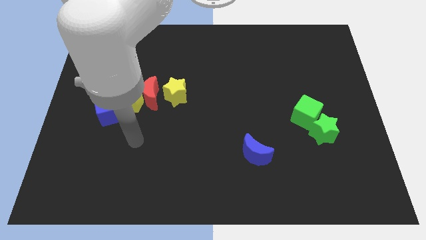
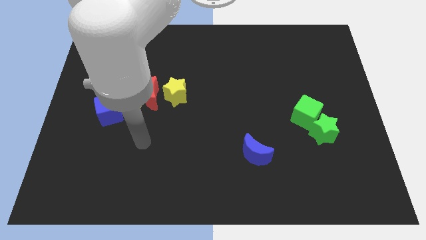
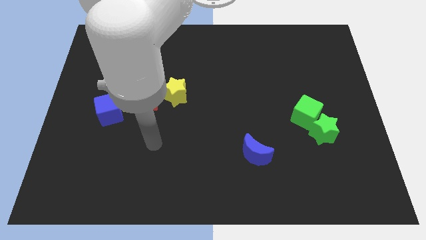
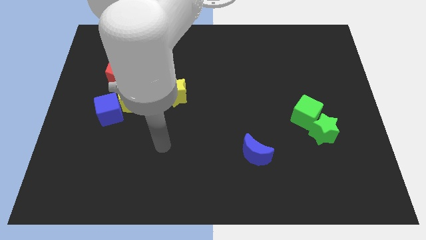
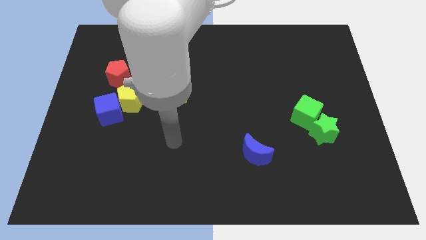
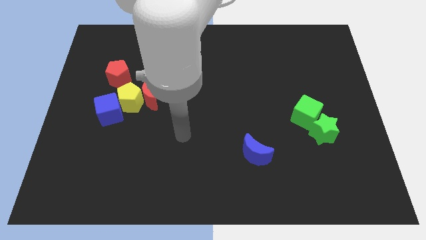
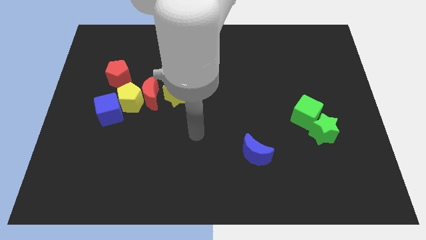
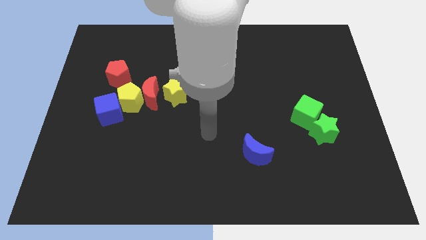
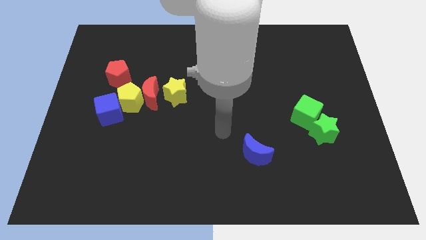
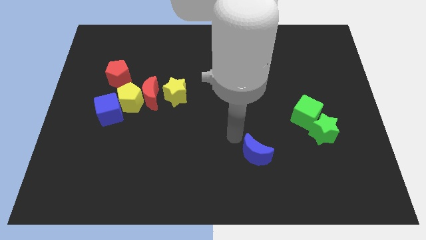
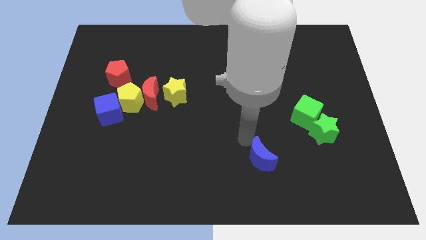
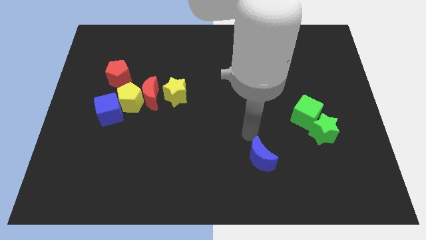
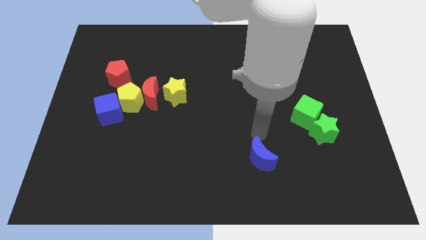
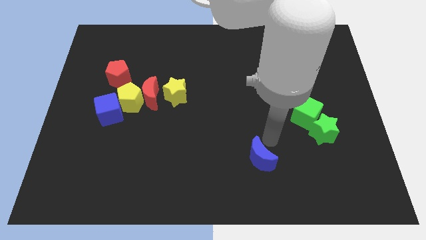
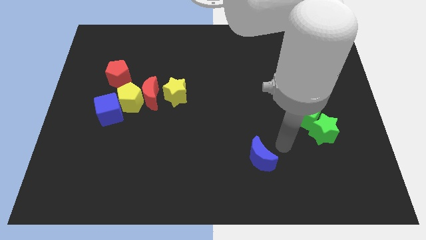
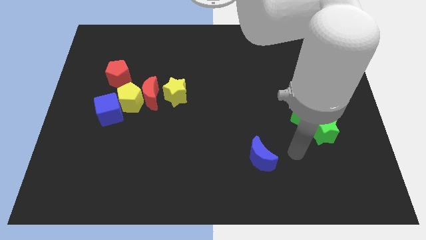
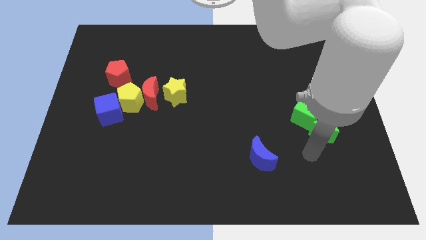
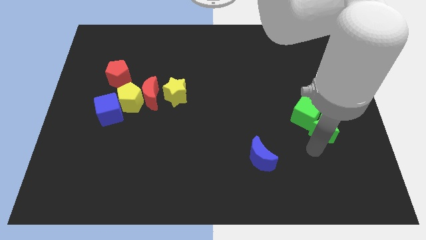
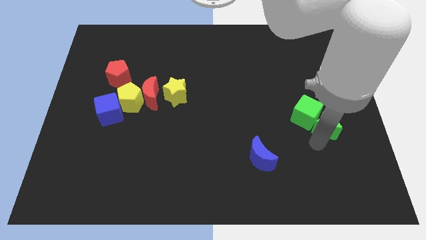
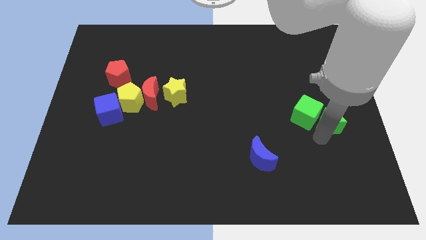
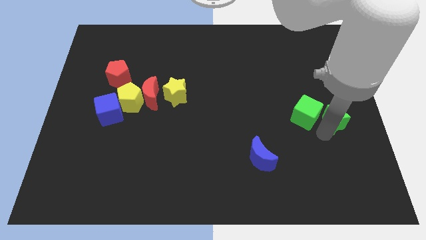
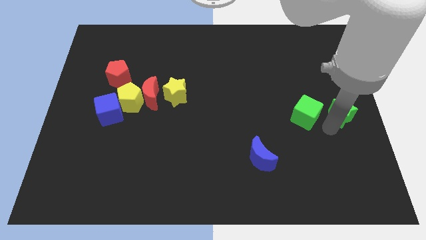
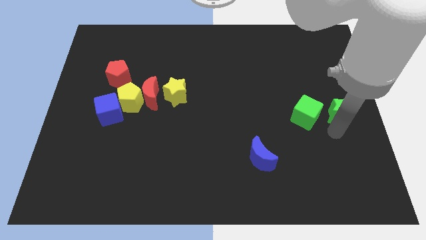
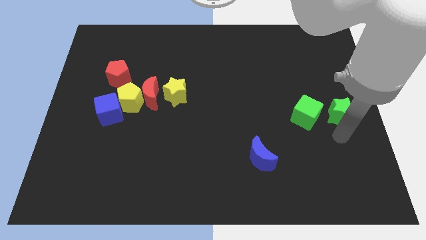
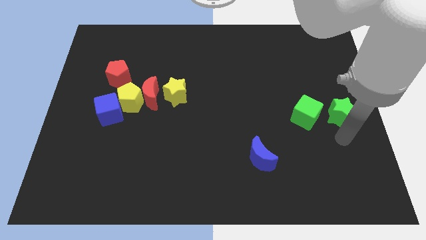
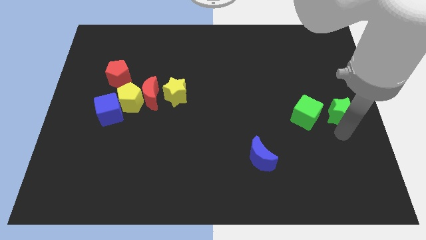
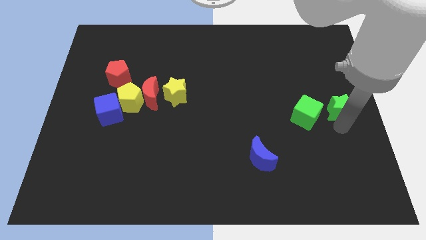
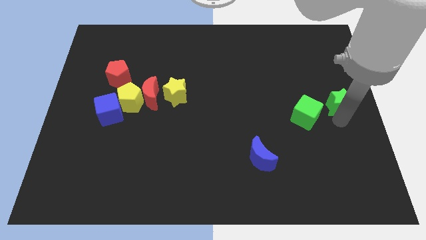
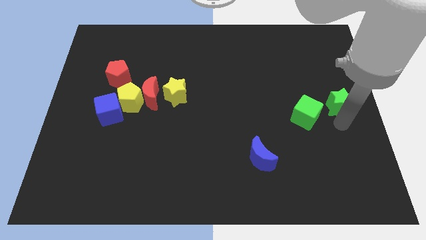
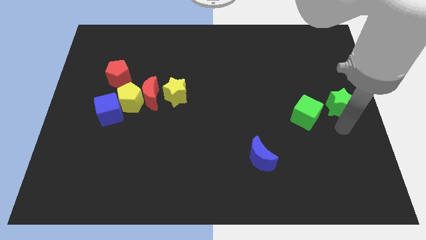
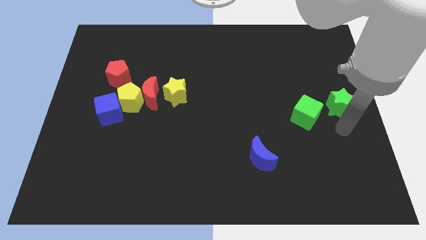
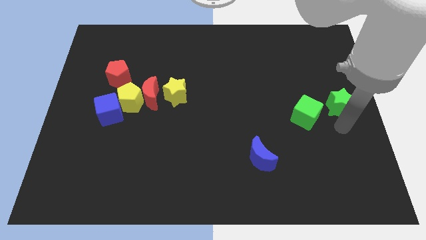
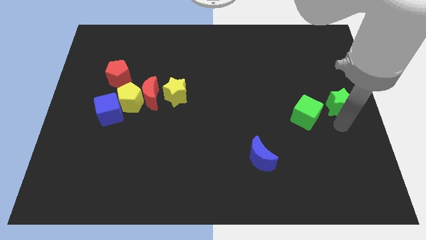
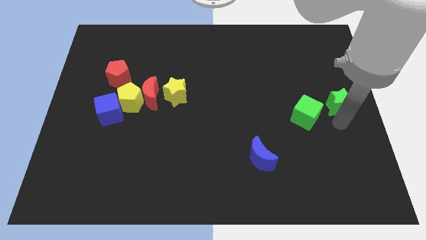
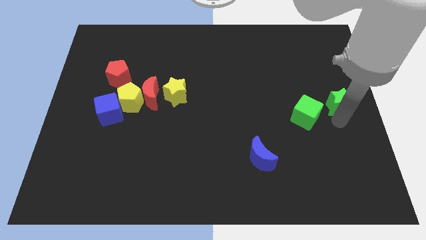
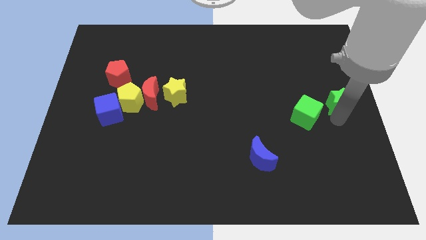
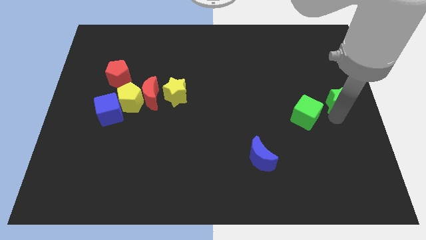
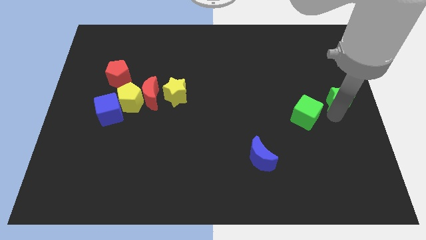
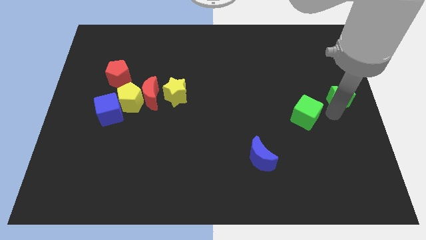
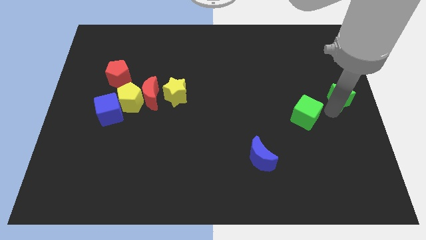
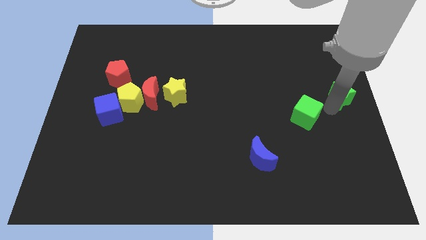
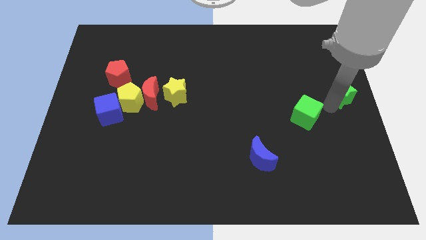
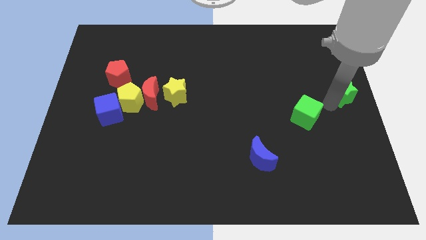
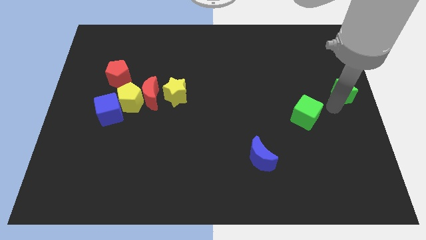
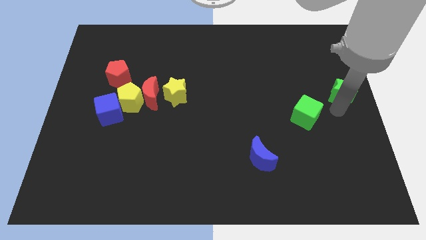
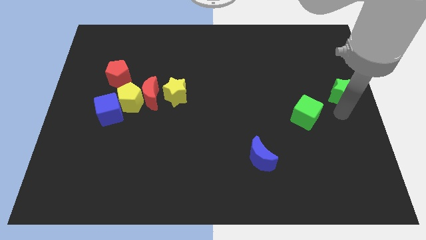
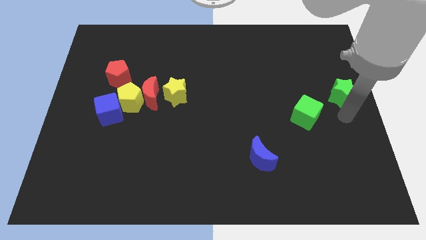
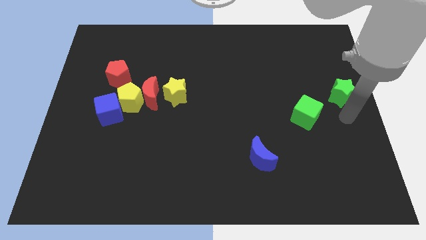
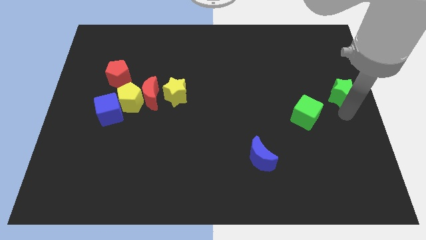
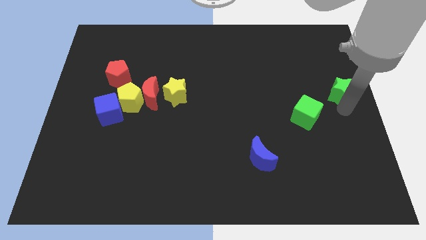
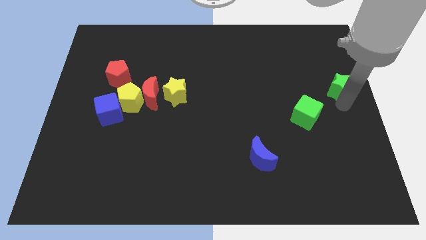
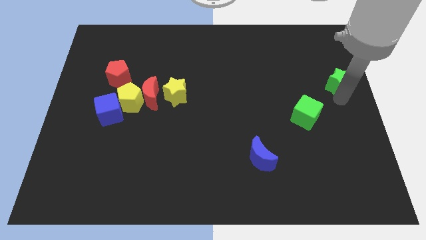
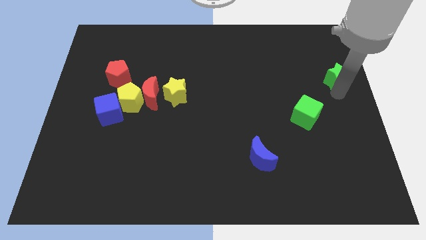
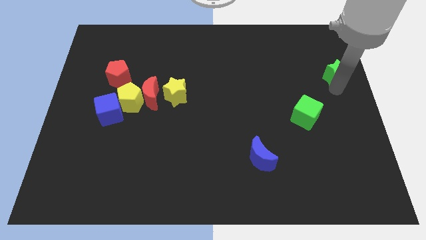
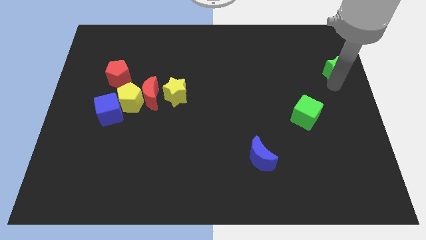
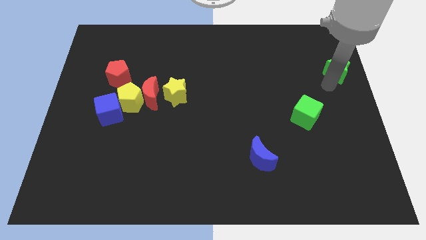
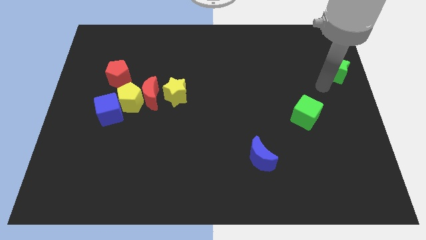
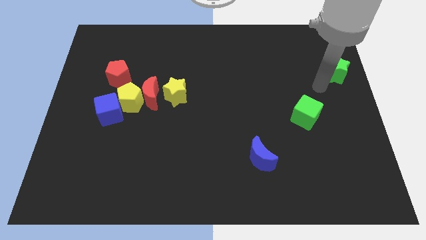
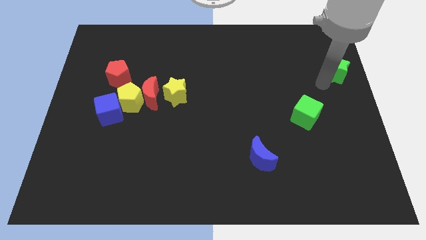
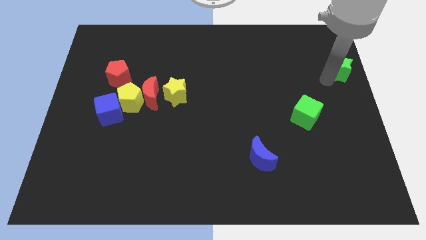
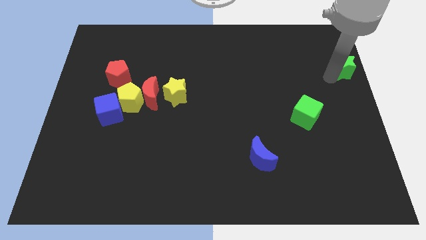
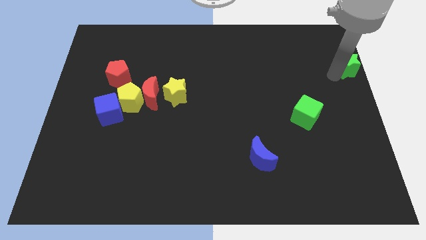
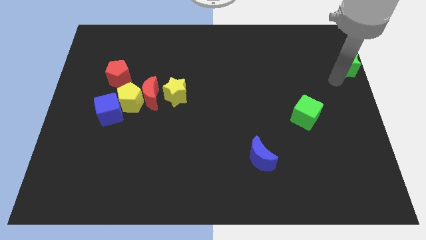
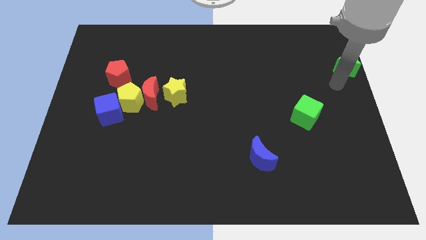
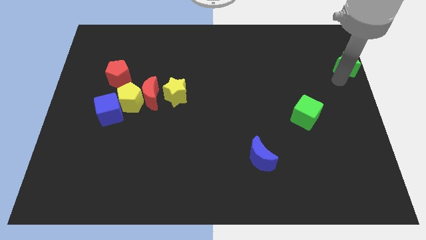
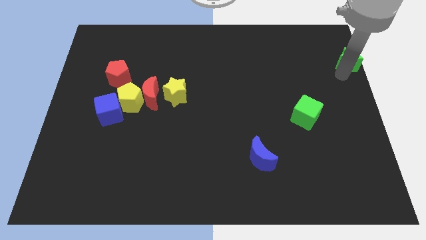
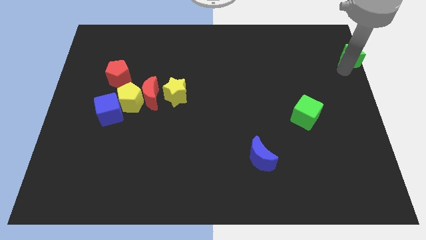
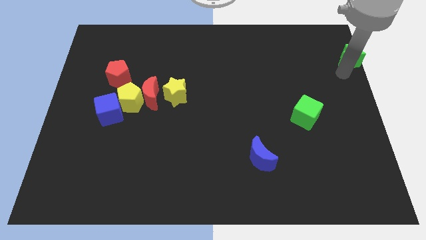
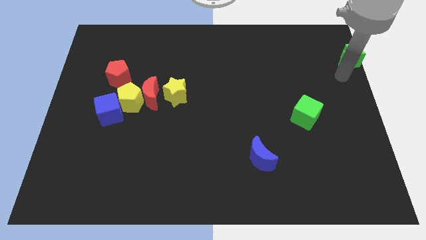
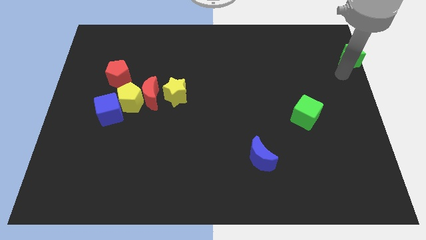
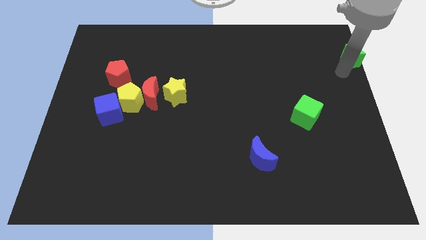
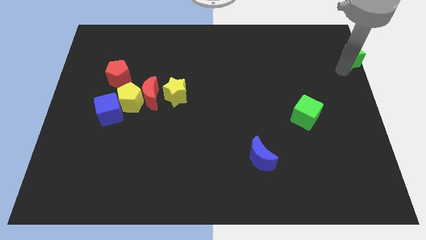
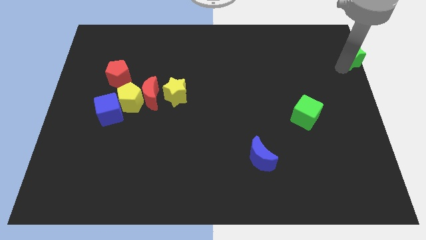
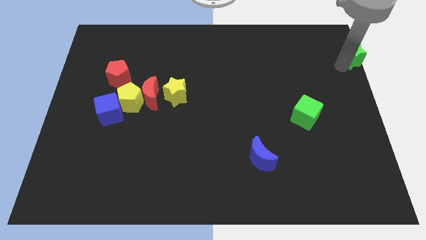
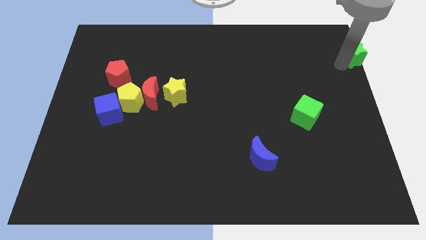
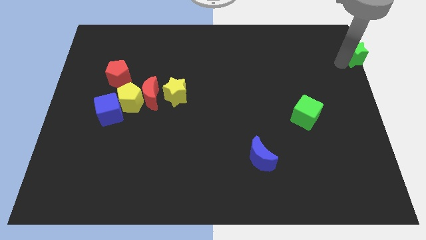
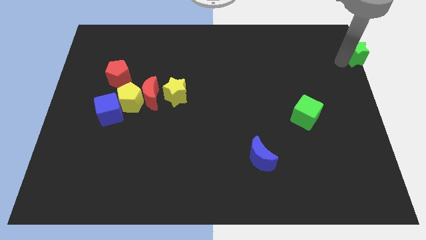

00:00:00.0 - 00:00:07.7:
put the green star to the top right of the board
